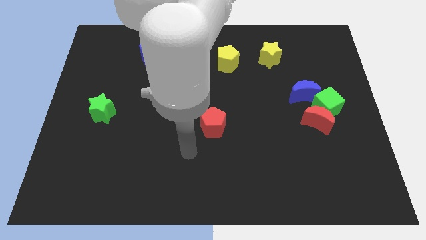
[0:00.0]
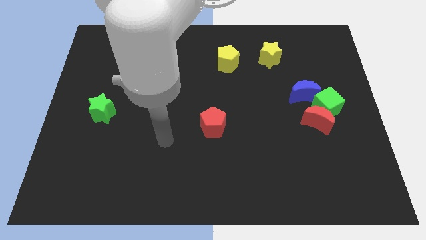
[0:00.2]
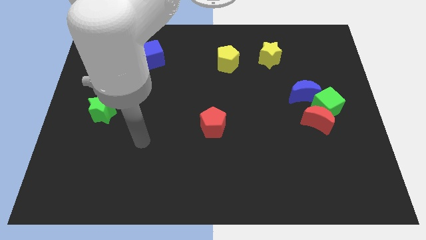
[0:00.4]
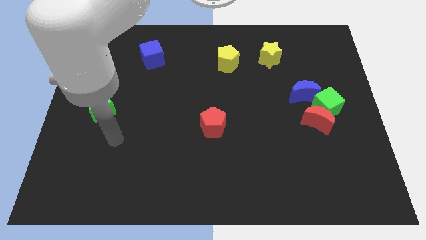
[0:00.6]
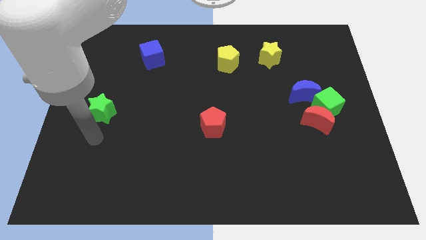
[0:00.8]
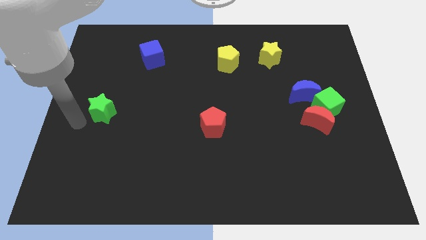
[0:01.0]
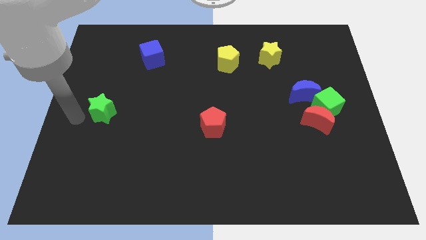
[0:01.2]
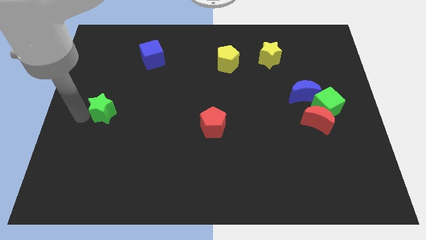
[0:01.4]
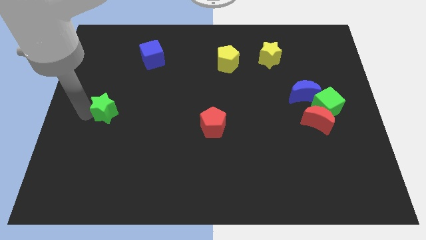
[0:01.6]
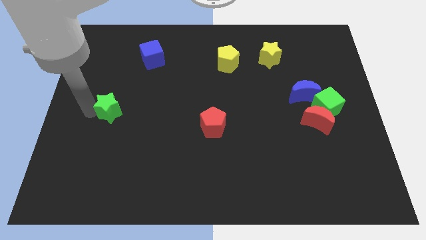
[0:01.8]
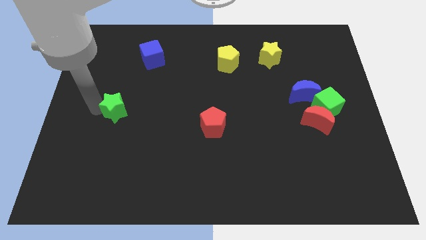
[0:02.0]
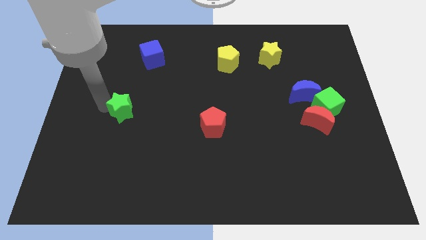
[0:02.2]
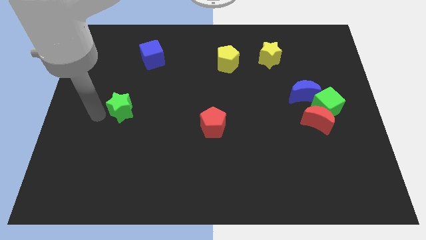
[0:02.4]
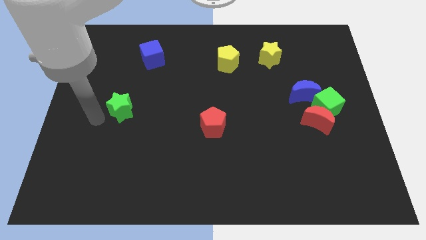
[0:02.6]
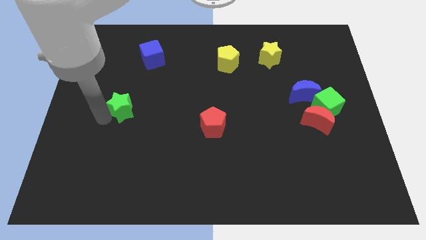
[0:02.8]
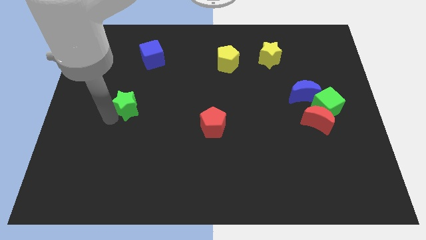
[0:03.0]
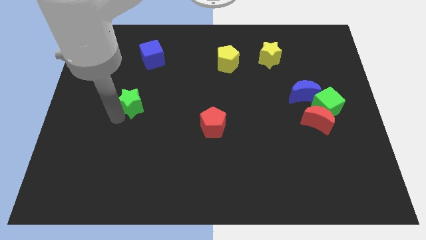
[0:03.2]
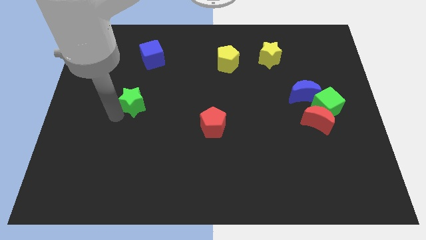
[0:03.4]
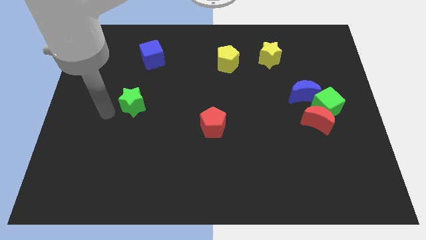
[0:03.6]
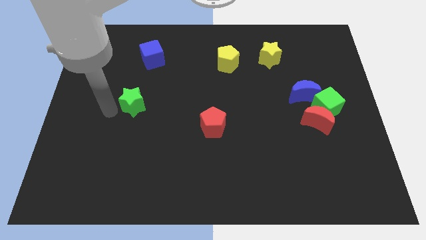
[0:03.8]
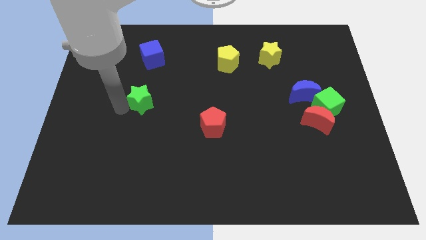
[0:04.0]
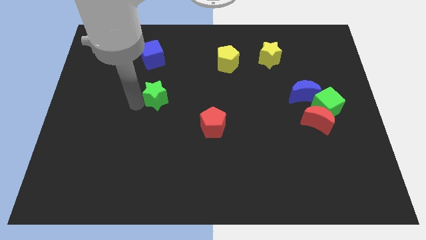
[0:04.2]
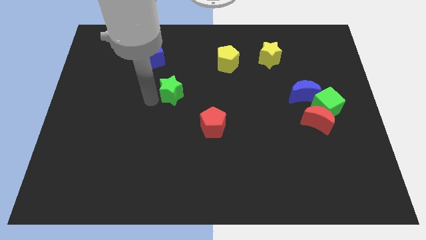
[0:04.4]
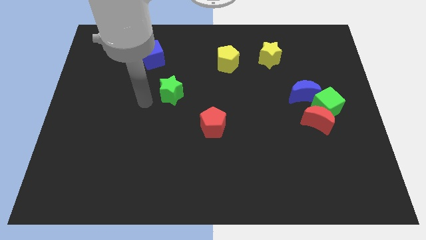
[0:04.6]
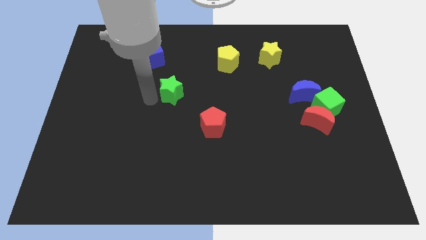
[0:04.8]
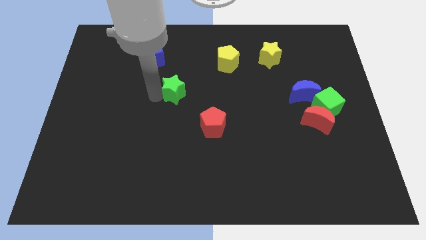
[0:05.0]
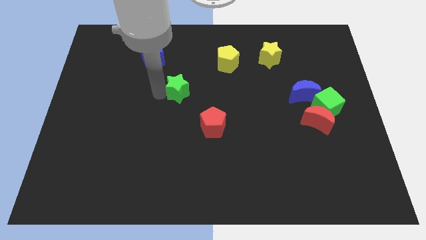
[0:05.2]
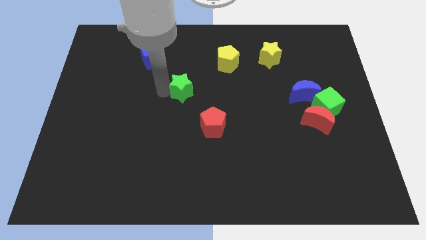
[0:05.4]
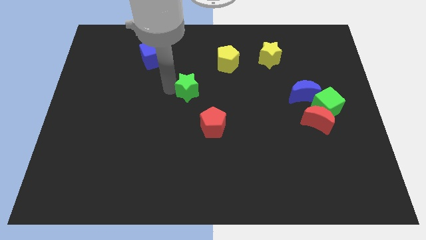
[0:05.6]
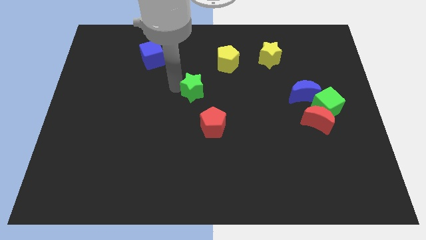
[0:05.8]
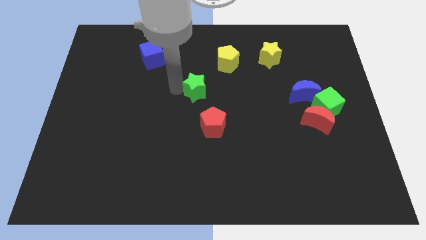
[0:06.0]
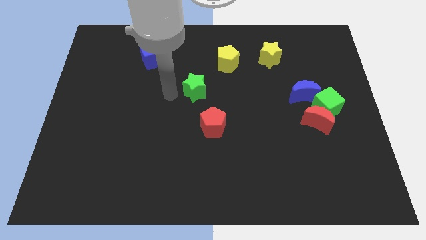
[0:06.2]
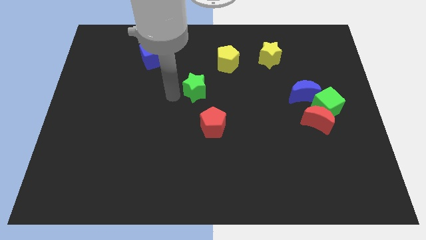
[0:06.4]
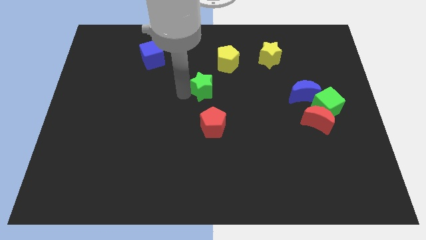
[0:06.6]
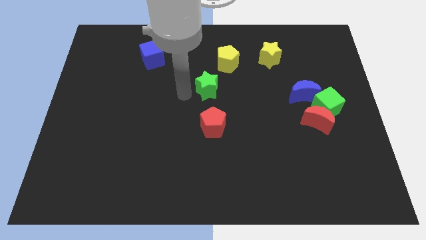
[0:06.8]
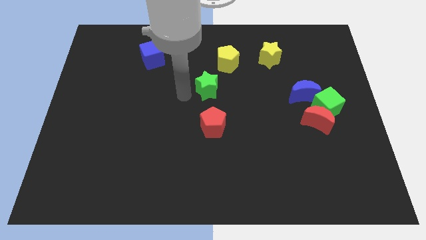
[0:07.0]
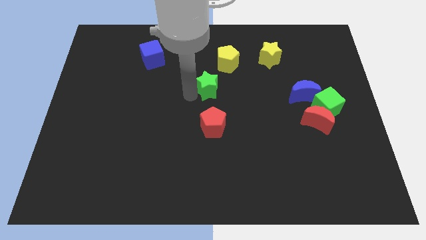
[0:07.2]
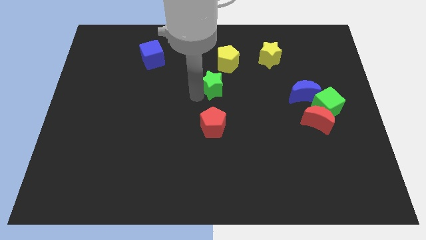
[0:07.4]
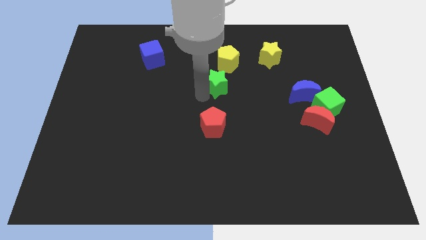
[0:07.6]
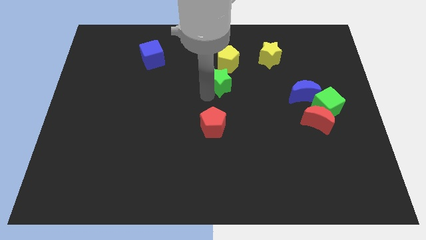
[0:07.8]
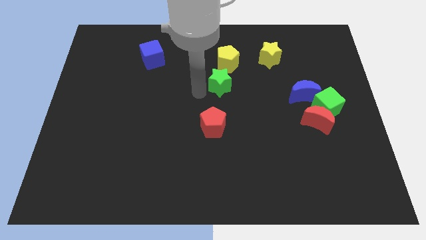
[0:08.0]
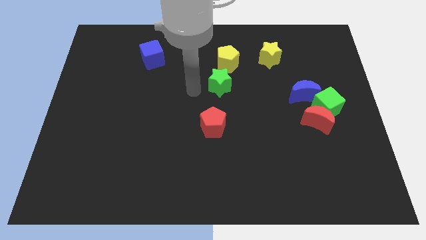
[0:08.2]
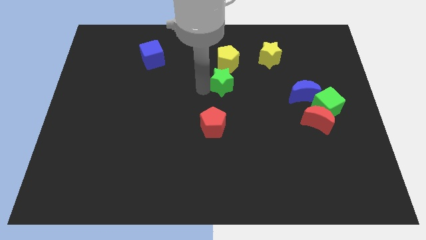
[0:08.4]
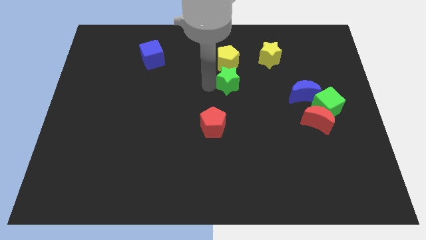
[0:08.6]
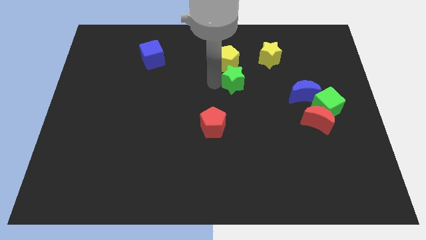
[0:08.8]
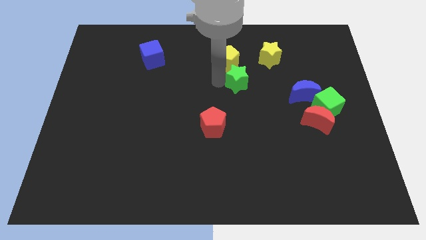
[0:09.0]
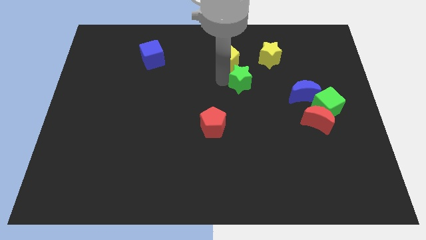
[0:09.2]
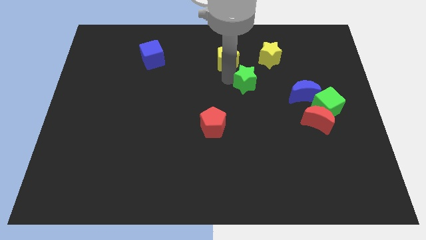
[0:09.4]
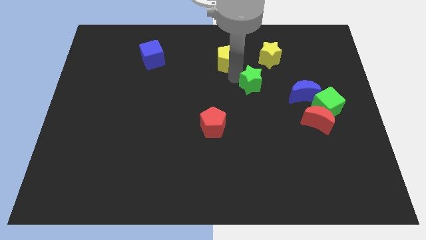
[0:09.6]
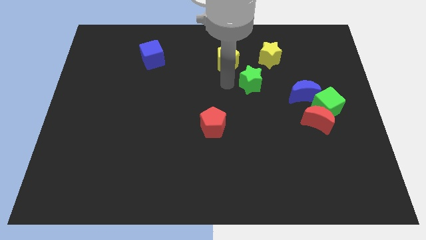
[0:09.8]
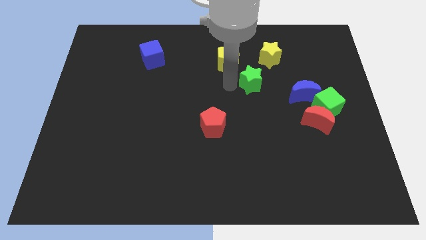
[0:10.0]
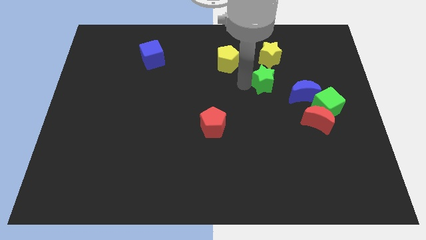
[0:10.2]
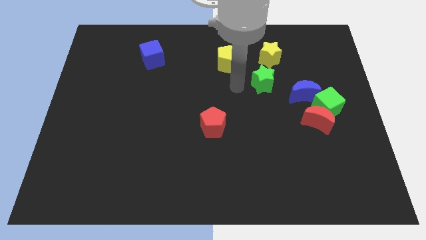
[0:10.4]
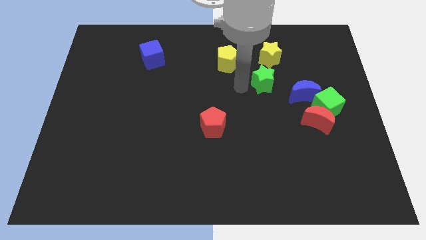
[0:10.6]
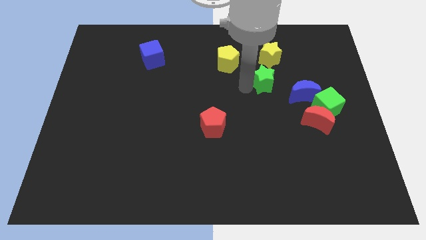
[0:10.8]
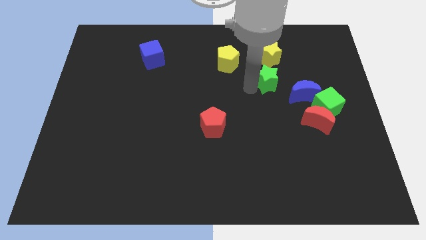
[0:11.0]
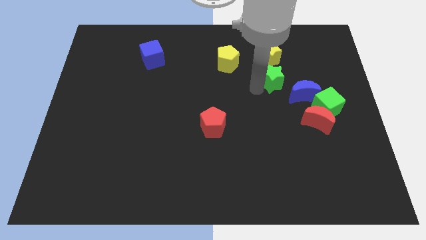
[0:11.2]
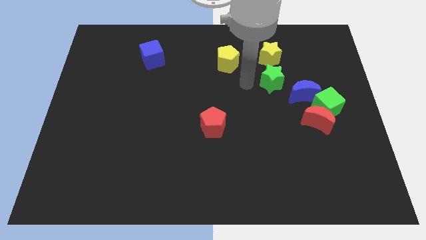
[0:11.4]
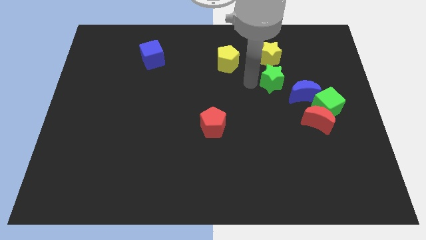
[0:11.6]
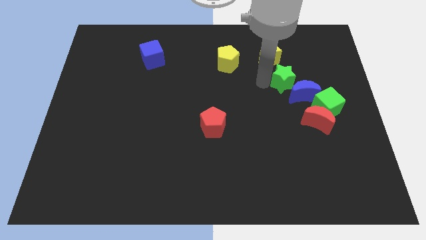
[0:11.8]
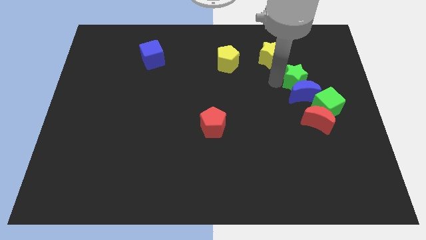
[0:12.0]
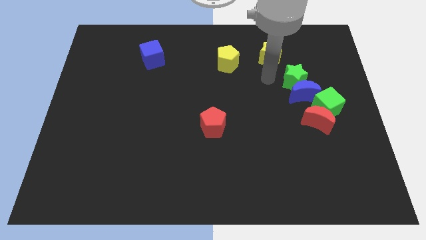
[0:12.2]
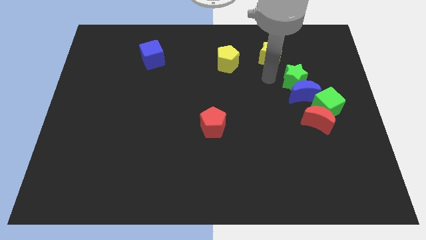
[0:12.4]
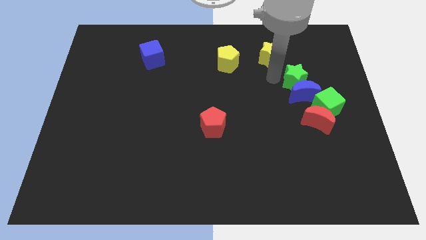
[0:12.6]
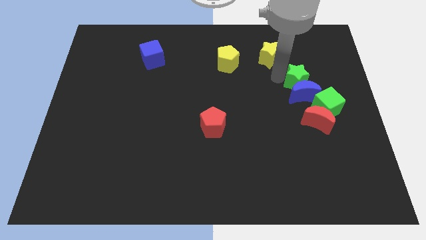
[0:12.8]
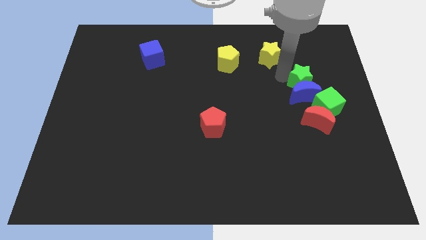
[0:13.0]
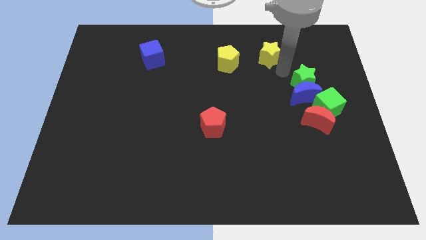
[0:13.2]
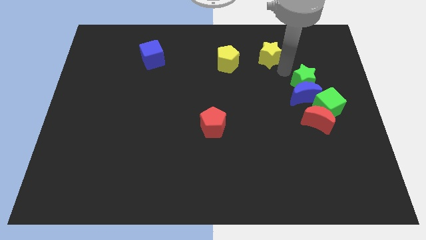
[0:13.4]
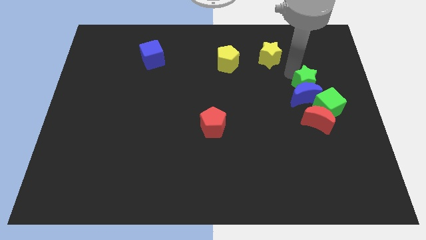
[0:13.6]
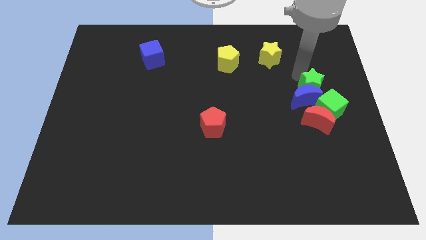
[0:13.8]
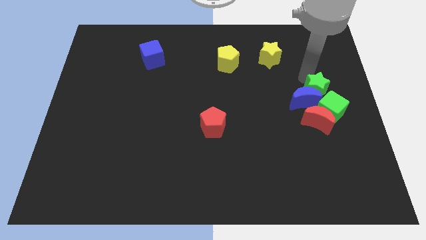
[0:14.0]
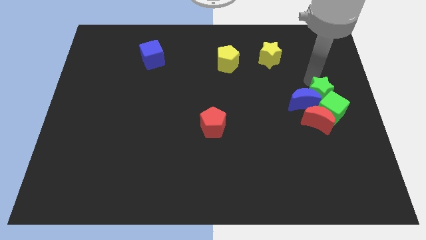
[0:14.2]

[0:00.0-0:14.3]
move the green star diagonally up and to the right of the red moon

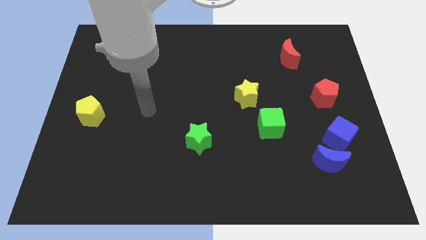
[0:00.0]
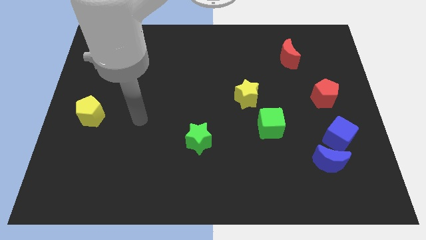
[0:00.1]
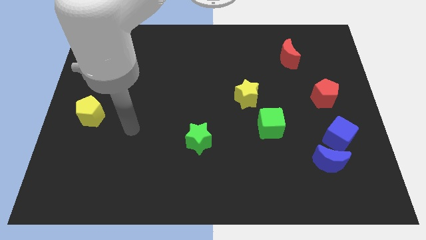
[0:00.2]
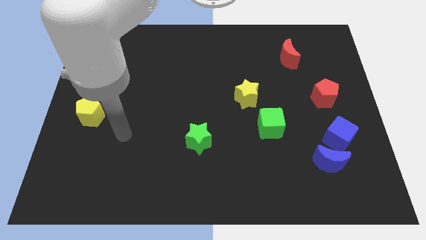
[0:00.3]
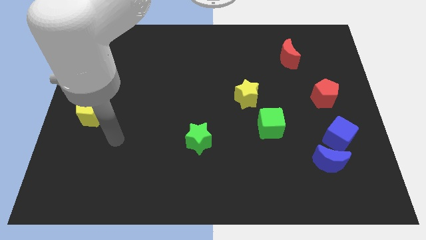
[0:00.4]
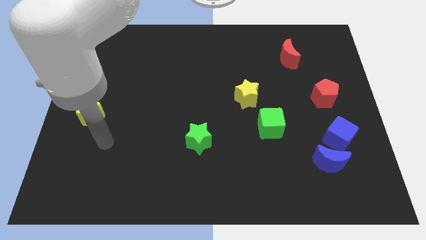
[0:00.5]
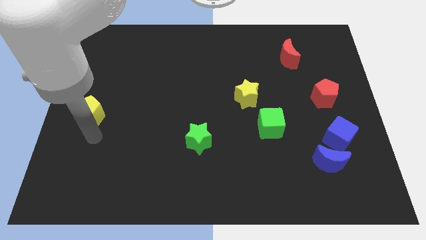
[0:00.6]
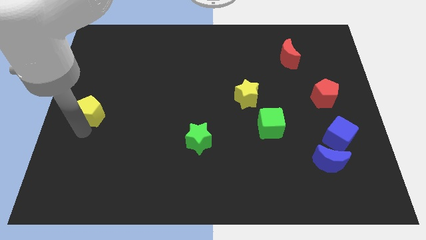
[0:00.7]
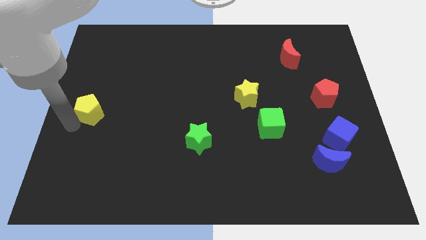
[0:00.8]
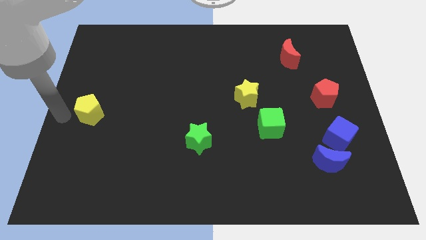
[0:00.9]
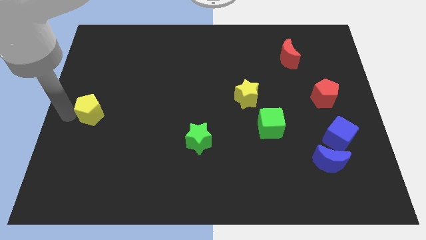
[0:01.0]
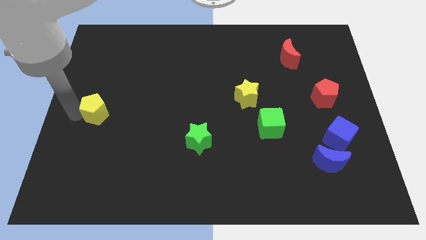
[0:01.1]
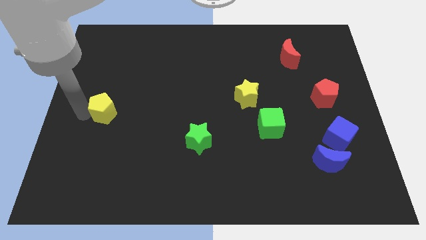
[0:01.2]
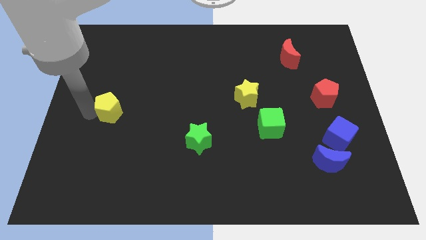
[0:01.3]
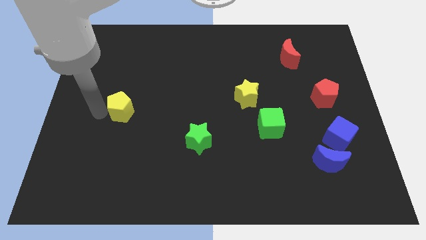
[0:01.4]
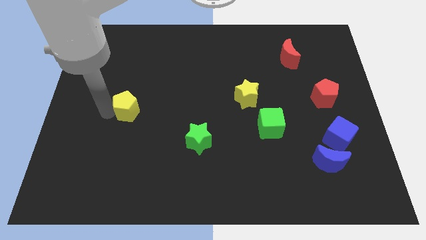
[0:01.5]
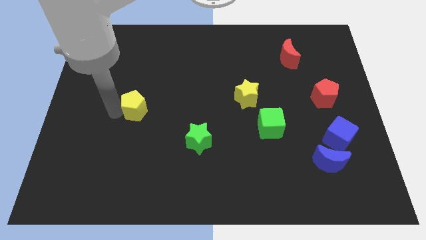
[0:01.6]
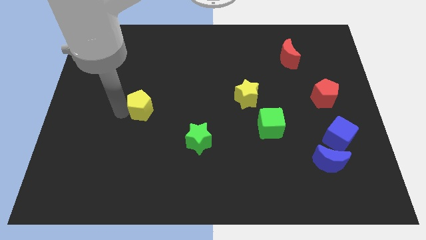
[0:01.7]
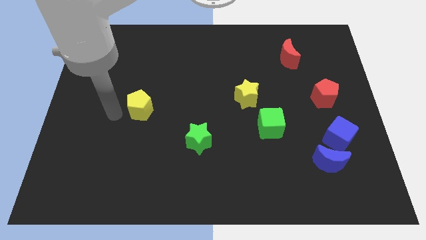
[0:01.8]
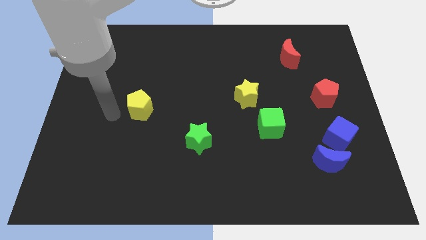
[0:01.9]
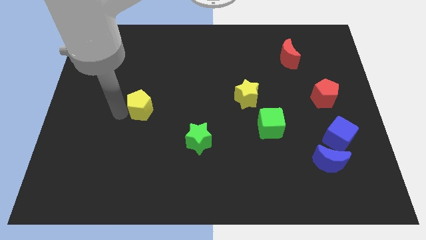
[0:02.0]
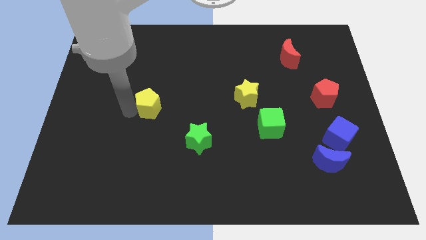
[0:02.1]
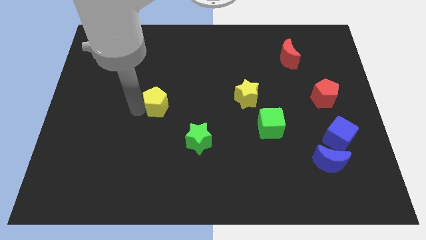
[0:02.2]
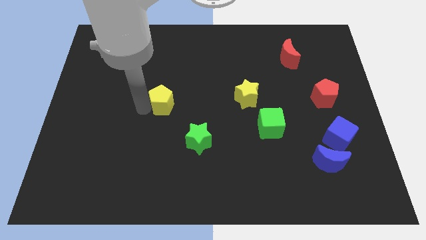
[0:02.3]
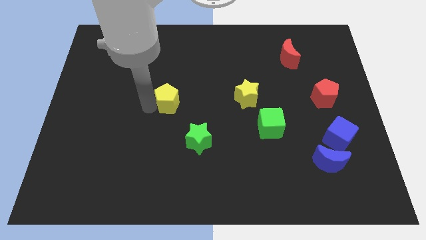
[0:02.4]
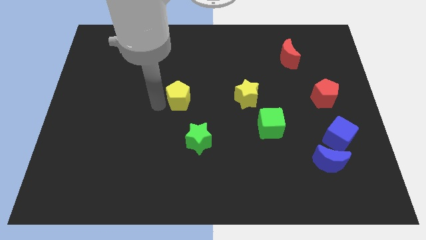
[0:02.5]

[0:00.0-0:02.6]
put the yellow pentagon to the left side of the yellow star
